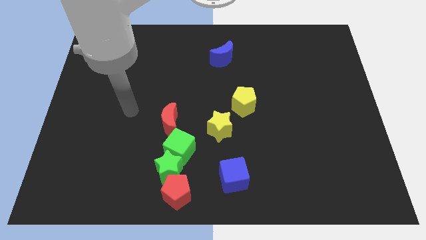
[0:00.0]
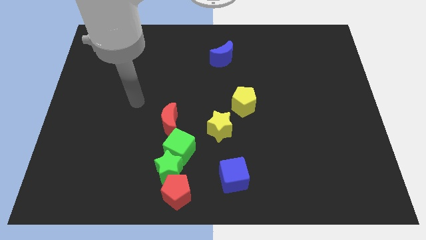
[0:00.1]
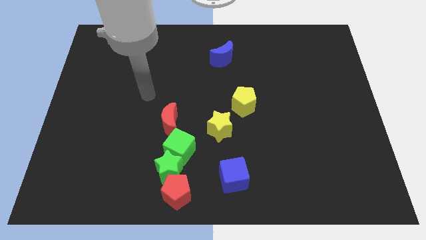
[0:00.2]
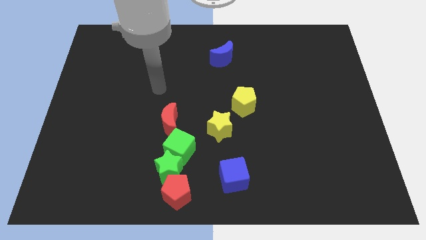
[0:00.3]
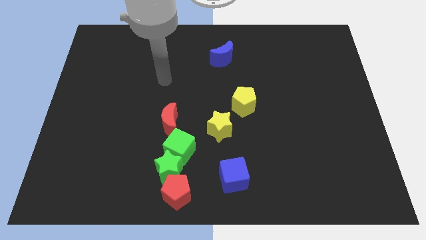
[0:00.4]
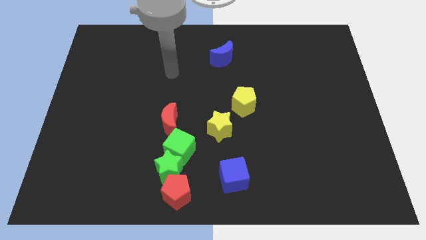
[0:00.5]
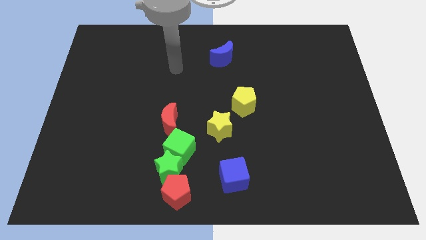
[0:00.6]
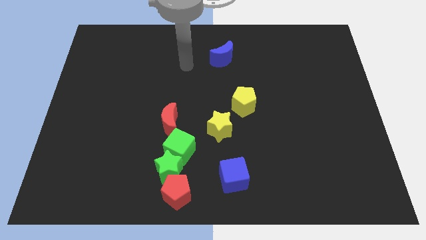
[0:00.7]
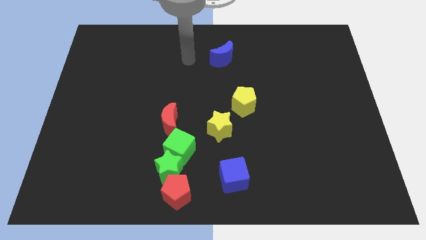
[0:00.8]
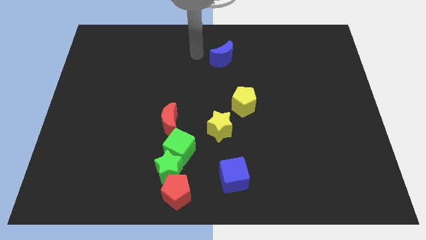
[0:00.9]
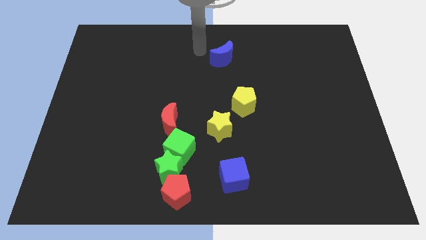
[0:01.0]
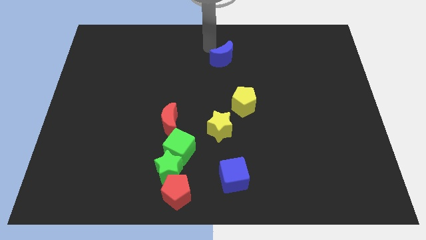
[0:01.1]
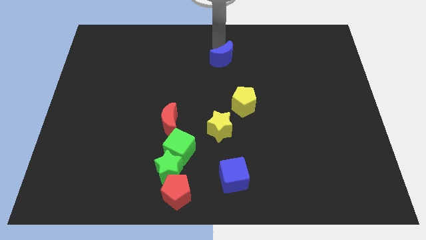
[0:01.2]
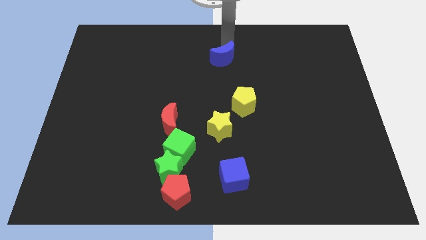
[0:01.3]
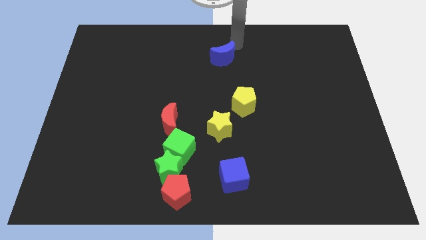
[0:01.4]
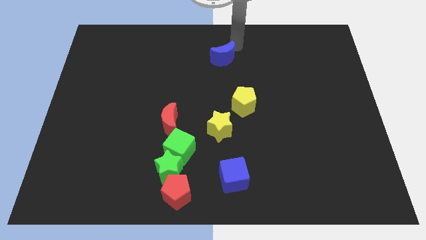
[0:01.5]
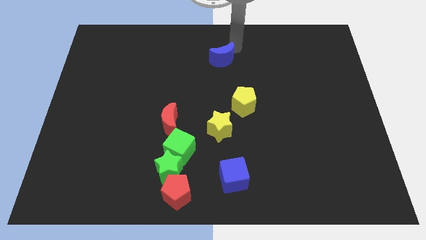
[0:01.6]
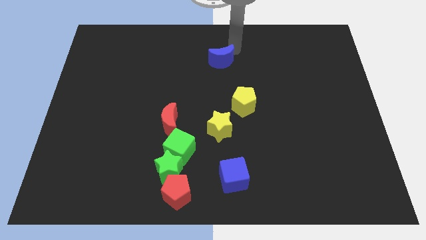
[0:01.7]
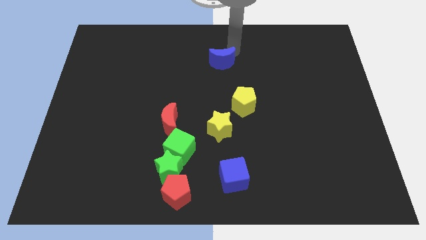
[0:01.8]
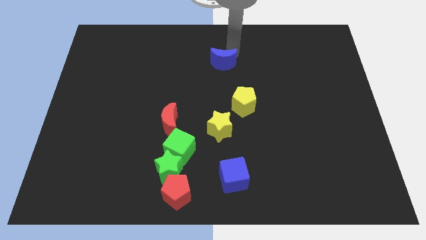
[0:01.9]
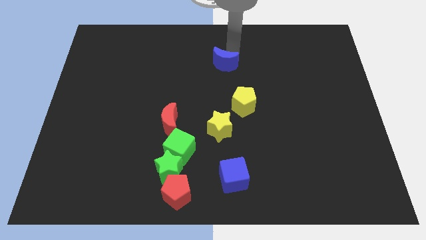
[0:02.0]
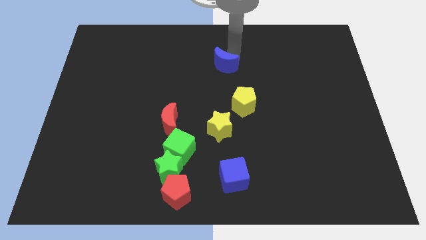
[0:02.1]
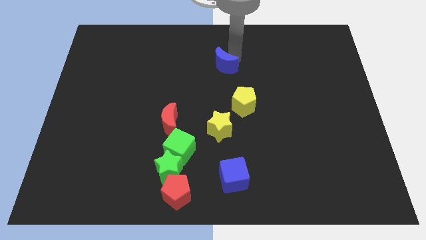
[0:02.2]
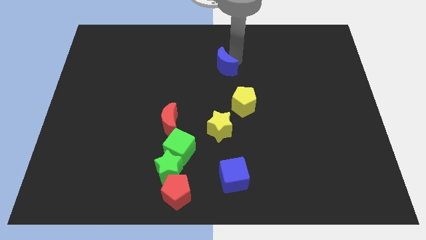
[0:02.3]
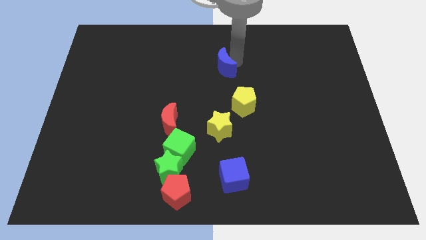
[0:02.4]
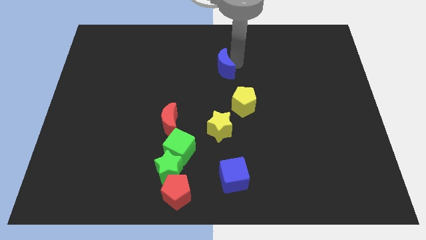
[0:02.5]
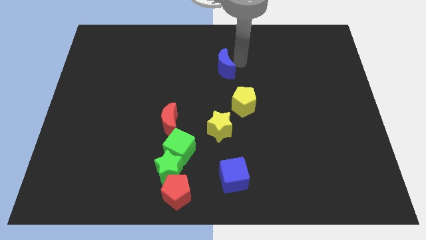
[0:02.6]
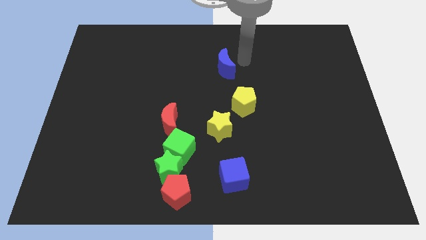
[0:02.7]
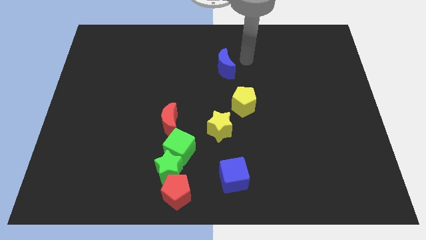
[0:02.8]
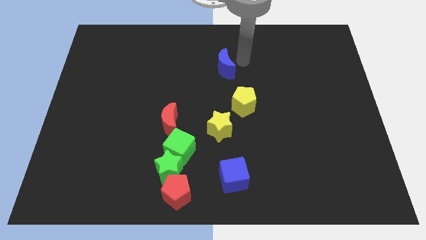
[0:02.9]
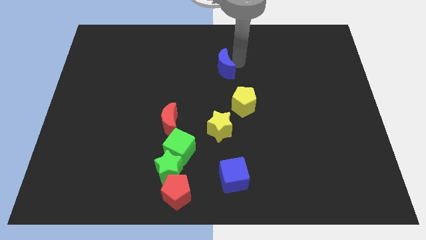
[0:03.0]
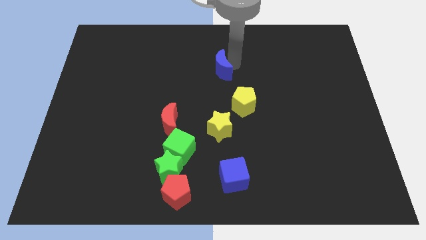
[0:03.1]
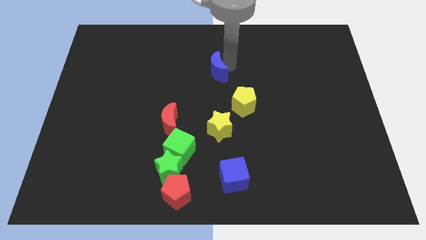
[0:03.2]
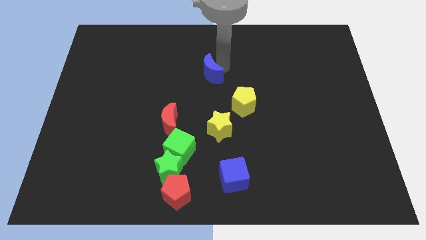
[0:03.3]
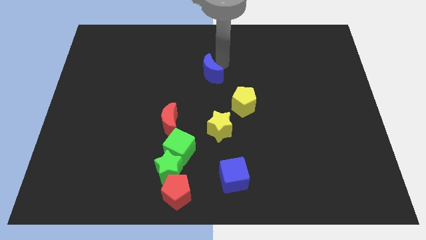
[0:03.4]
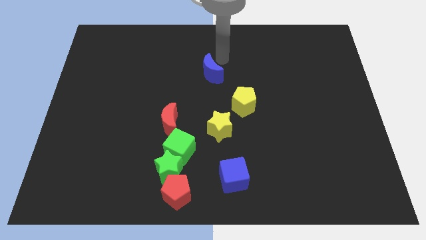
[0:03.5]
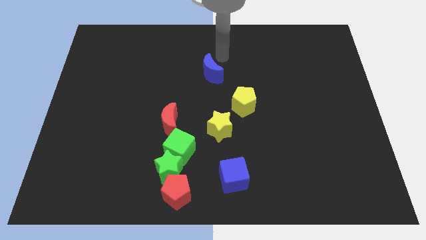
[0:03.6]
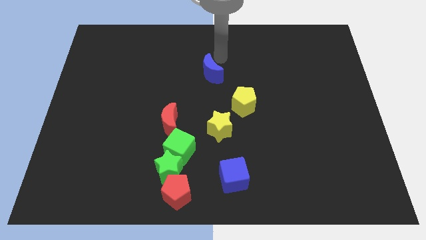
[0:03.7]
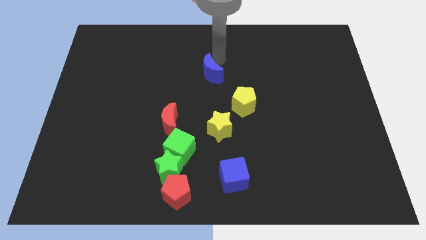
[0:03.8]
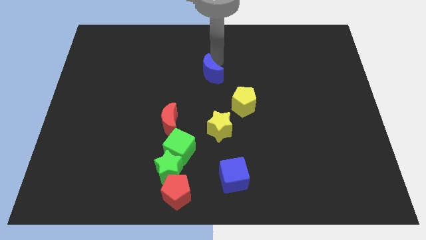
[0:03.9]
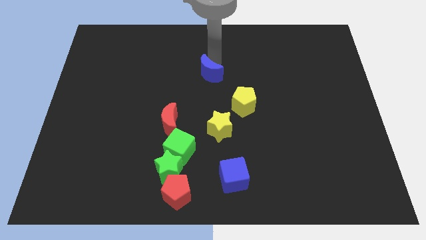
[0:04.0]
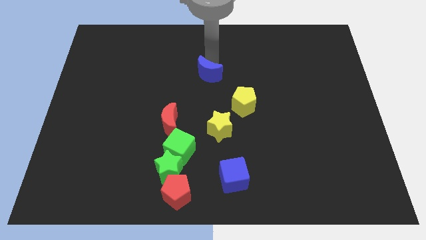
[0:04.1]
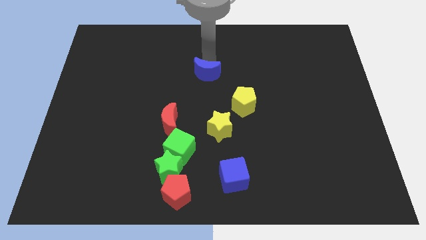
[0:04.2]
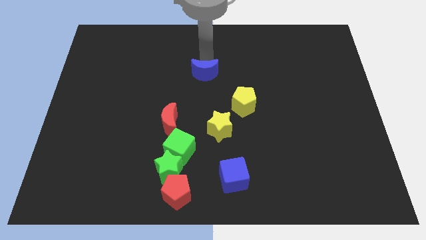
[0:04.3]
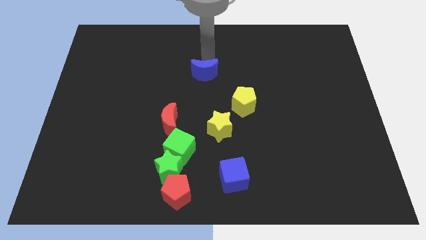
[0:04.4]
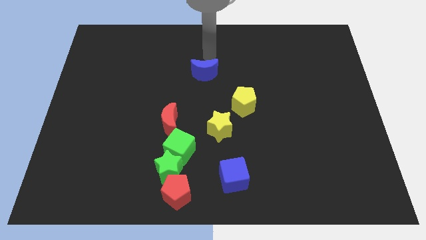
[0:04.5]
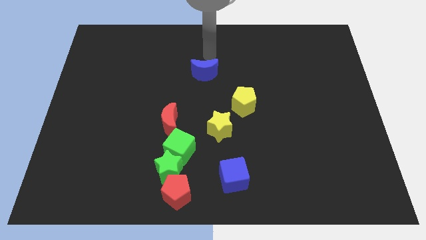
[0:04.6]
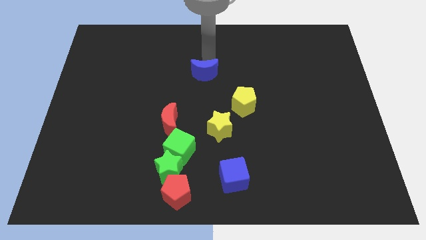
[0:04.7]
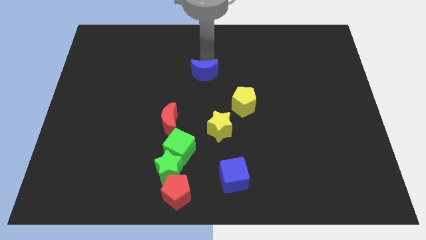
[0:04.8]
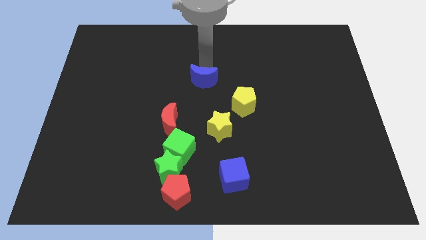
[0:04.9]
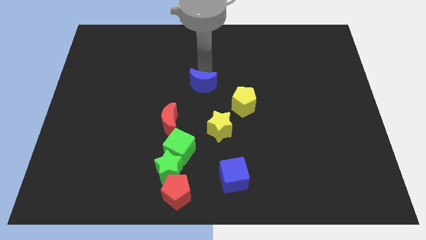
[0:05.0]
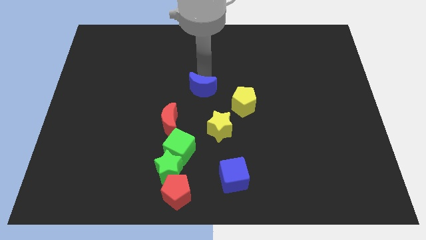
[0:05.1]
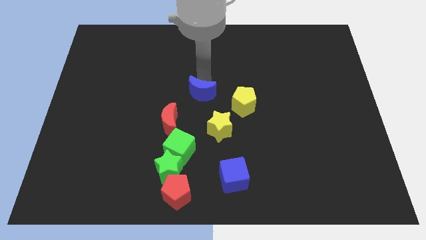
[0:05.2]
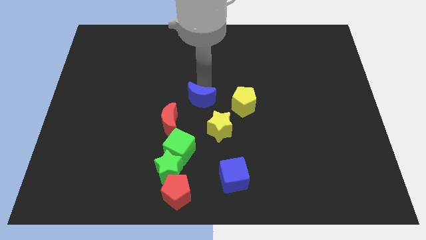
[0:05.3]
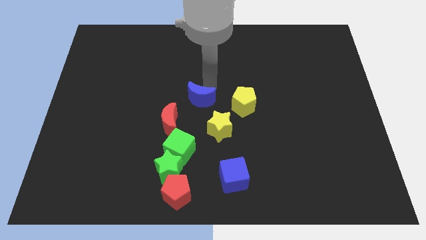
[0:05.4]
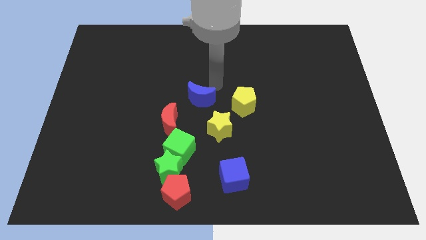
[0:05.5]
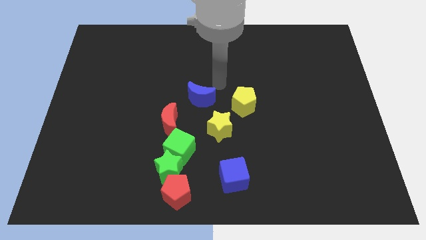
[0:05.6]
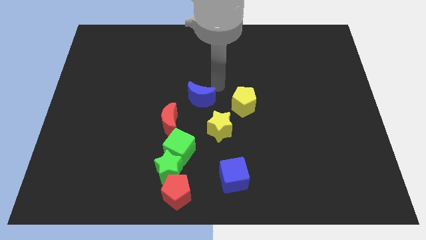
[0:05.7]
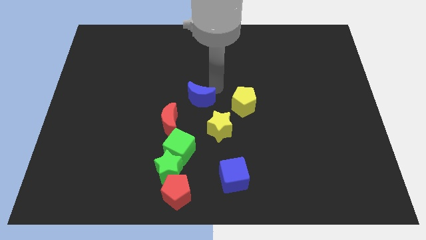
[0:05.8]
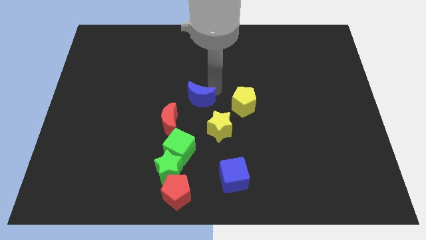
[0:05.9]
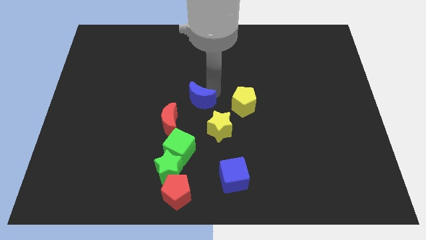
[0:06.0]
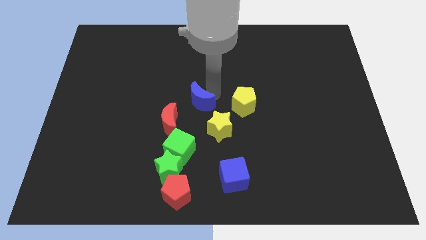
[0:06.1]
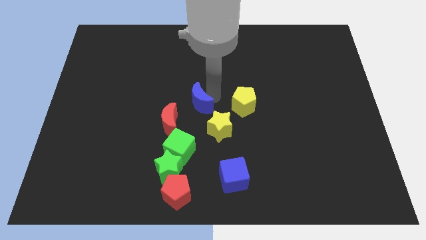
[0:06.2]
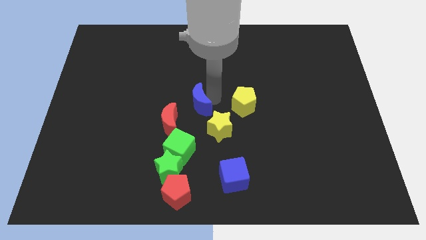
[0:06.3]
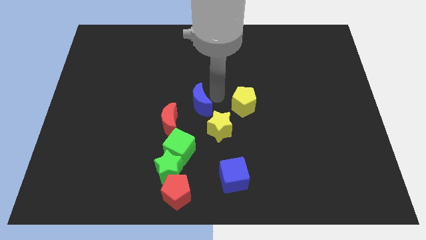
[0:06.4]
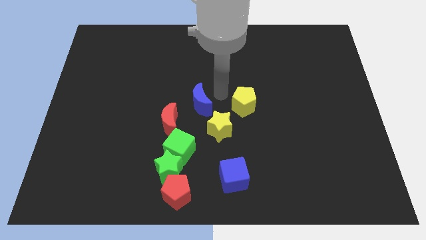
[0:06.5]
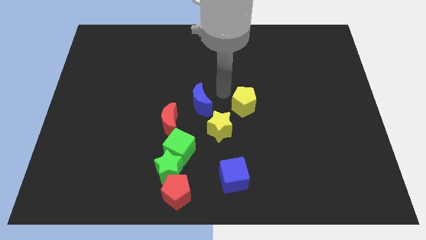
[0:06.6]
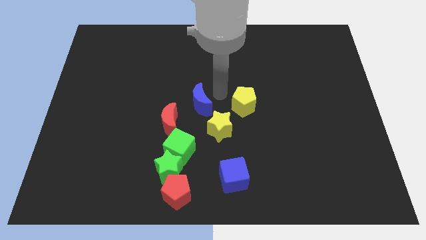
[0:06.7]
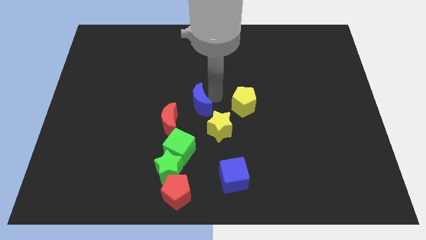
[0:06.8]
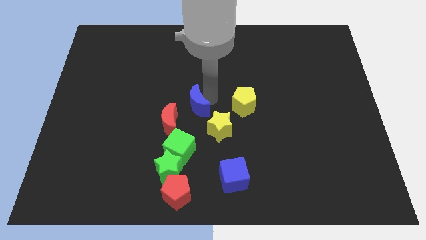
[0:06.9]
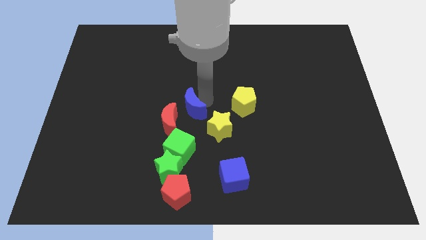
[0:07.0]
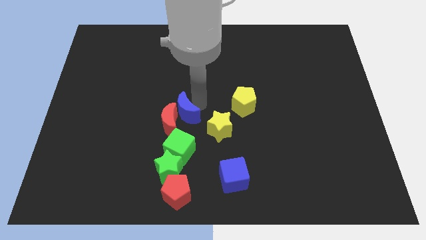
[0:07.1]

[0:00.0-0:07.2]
slide the blue moon next to the red moon

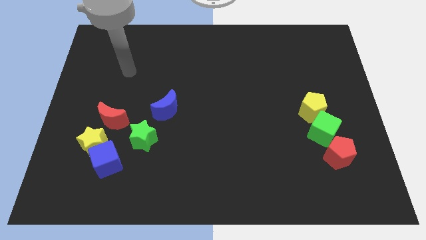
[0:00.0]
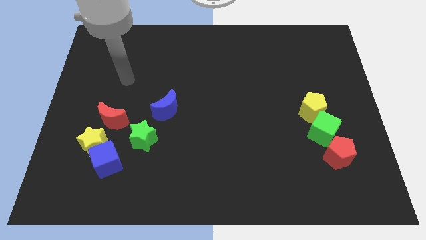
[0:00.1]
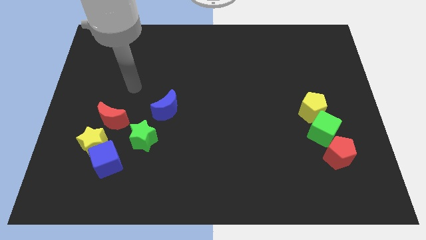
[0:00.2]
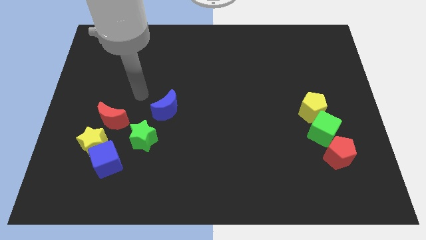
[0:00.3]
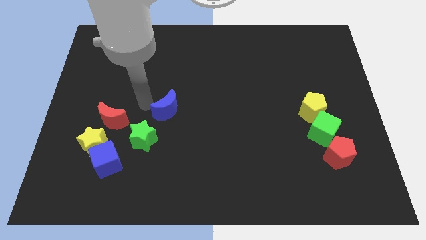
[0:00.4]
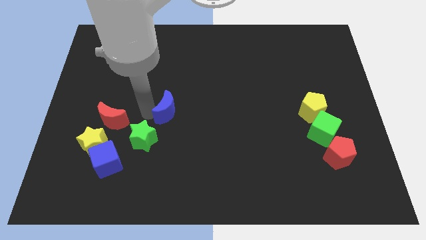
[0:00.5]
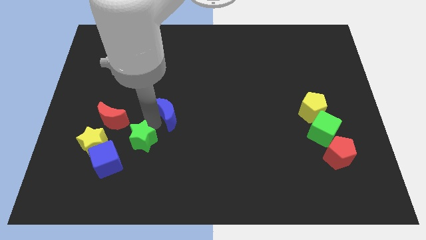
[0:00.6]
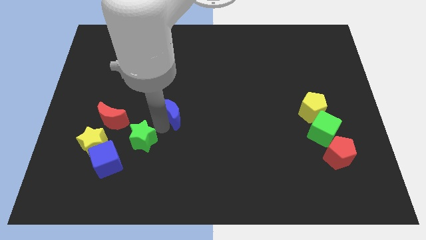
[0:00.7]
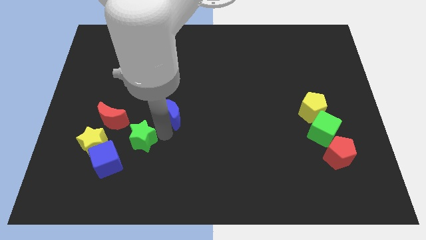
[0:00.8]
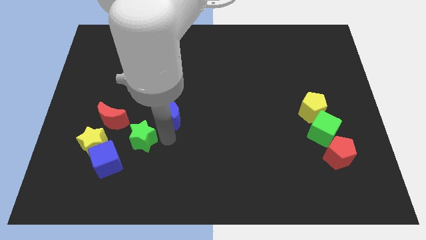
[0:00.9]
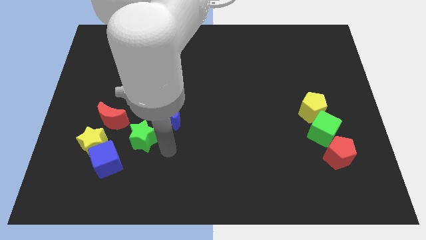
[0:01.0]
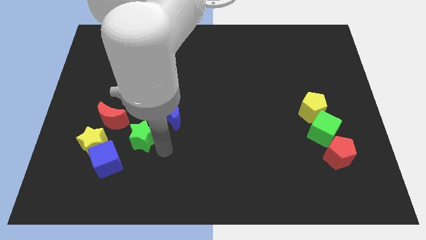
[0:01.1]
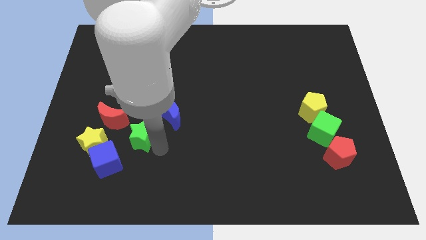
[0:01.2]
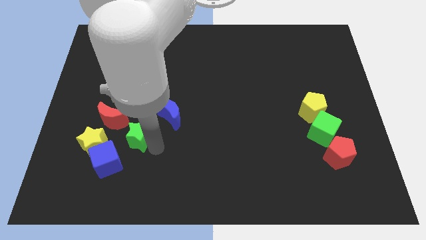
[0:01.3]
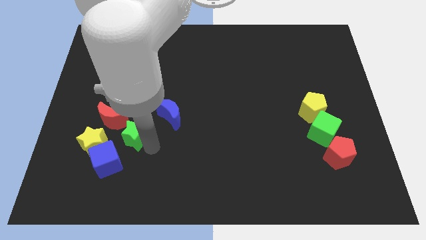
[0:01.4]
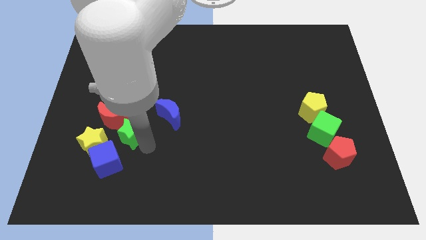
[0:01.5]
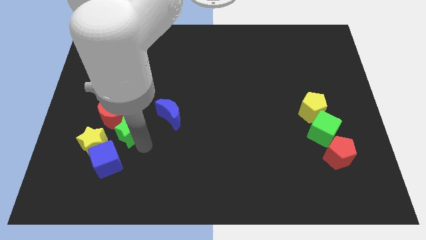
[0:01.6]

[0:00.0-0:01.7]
push the green star close to the red moon
